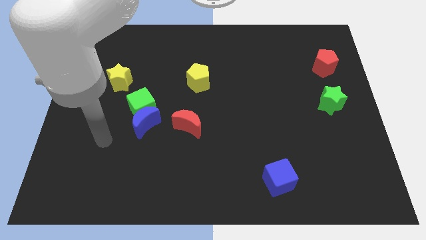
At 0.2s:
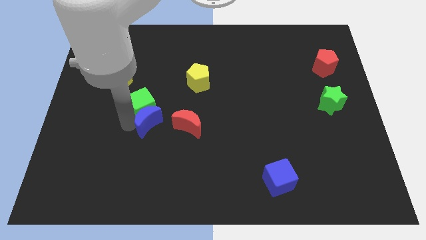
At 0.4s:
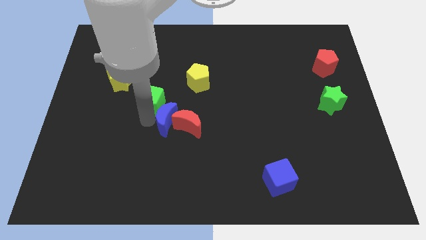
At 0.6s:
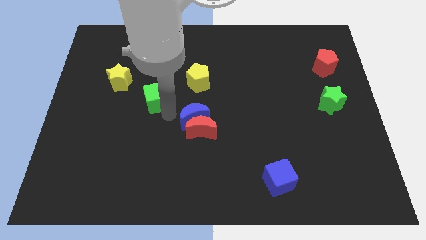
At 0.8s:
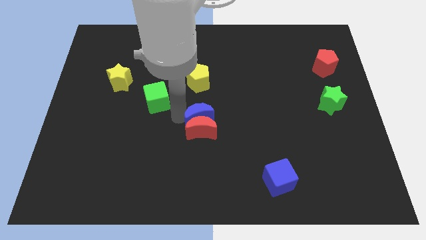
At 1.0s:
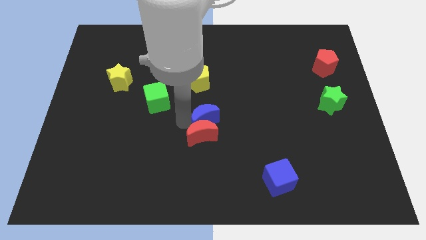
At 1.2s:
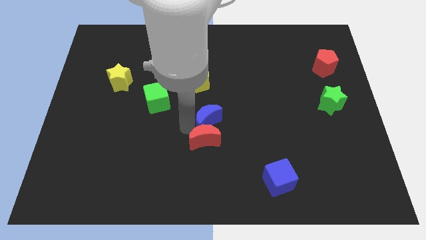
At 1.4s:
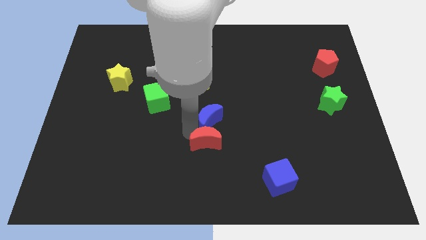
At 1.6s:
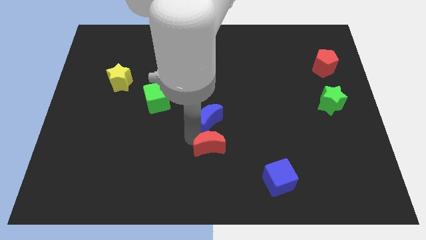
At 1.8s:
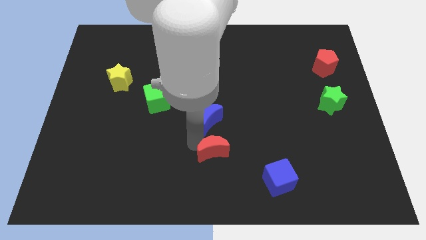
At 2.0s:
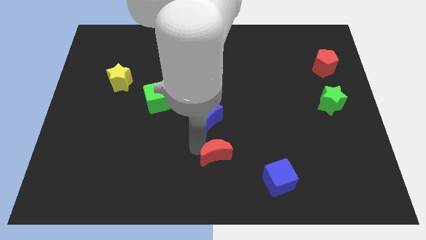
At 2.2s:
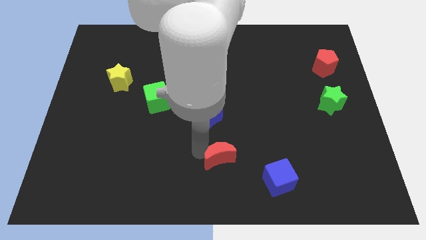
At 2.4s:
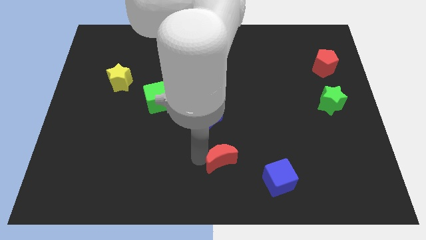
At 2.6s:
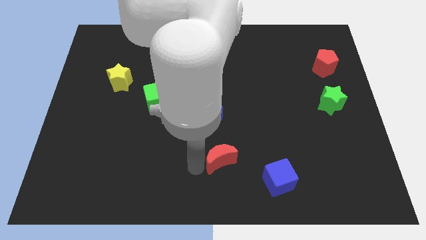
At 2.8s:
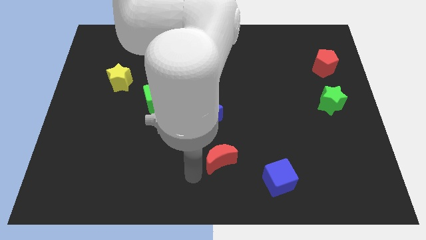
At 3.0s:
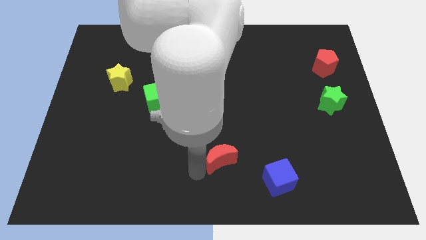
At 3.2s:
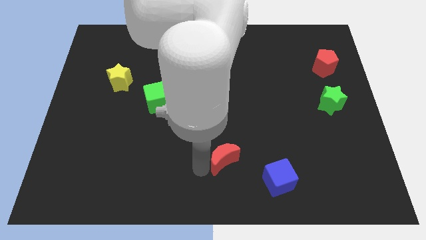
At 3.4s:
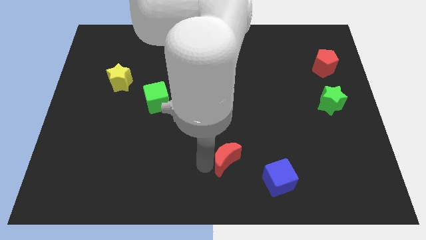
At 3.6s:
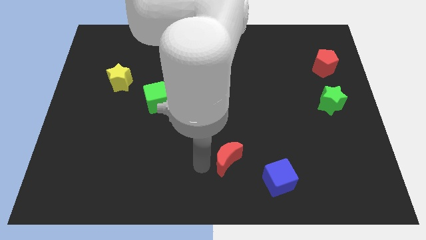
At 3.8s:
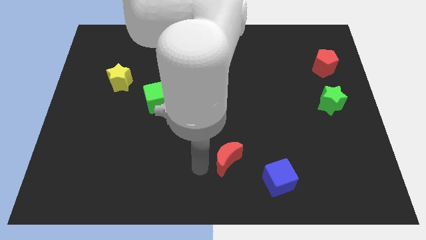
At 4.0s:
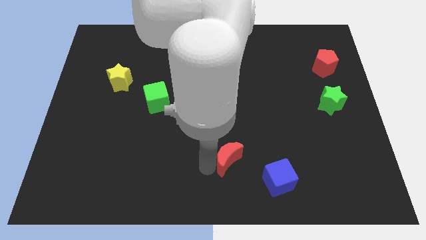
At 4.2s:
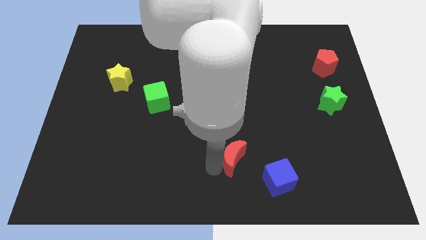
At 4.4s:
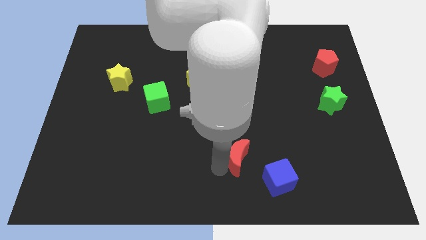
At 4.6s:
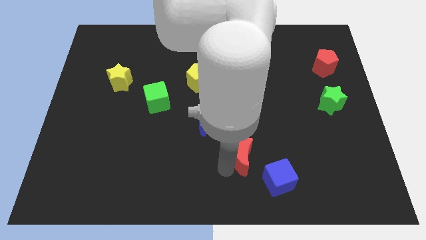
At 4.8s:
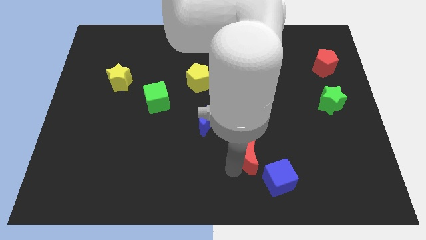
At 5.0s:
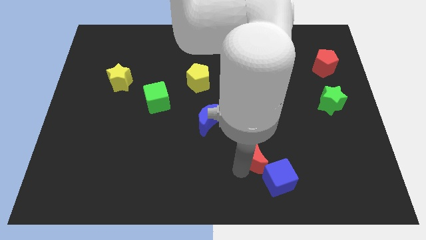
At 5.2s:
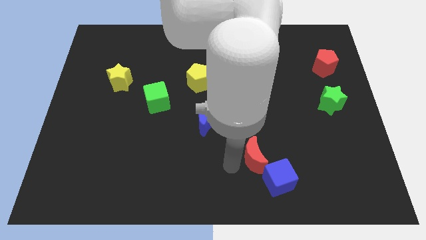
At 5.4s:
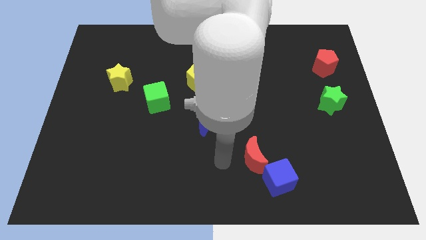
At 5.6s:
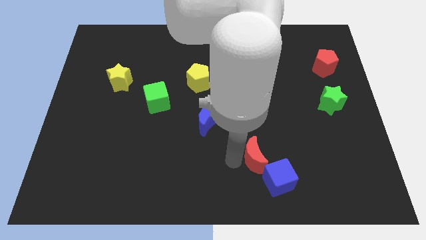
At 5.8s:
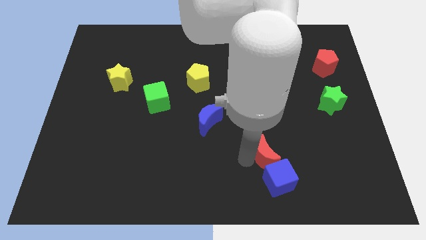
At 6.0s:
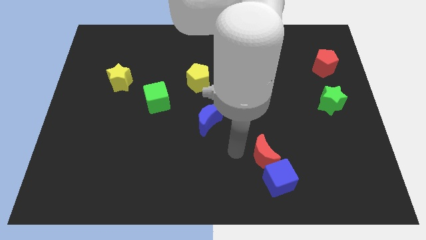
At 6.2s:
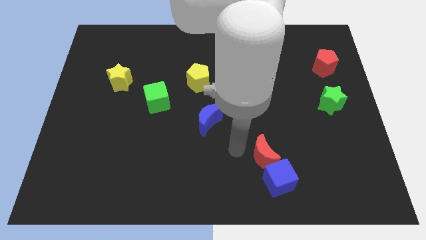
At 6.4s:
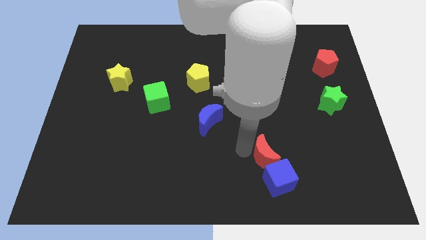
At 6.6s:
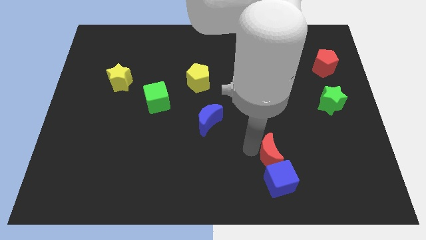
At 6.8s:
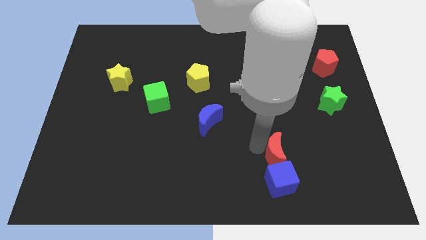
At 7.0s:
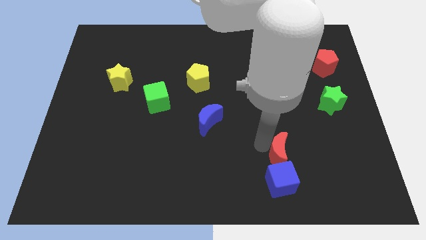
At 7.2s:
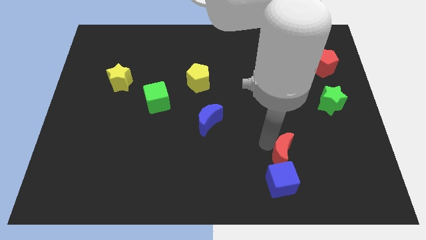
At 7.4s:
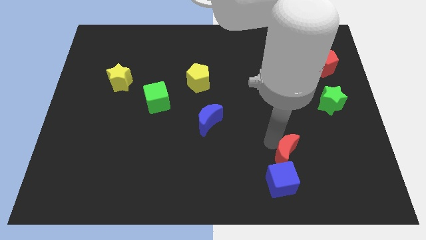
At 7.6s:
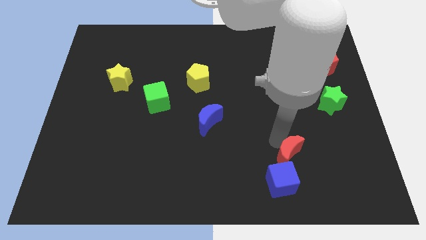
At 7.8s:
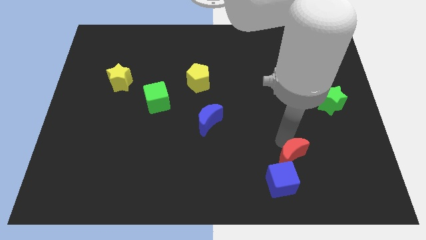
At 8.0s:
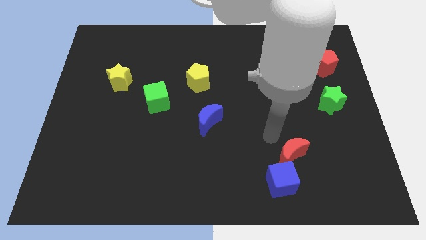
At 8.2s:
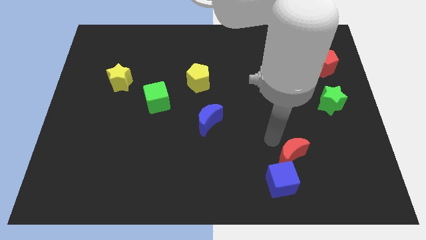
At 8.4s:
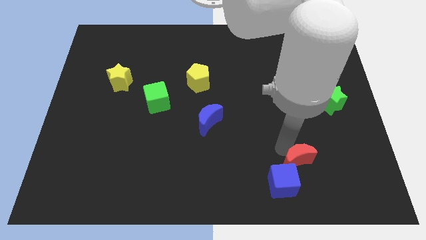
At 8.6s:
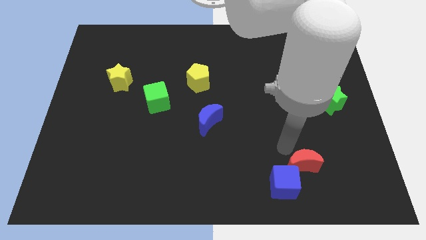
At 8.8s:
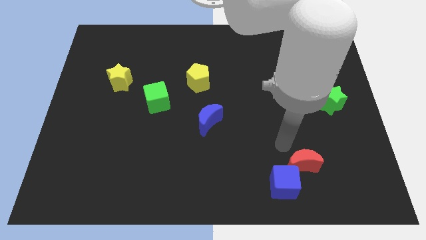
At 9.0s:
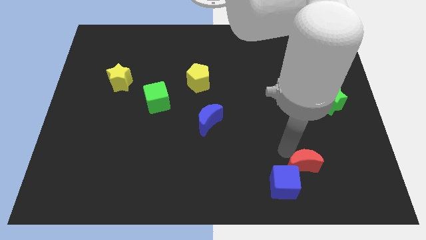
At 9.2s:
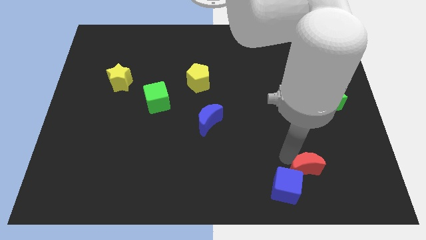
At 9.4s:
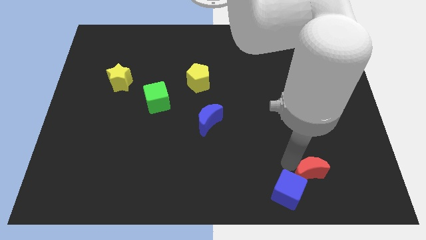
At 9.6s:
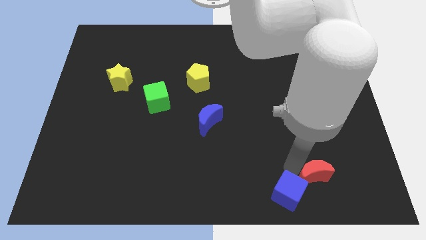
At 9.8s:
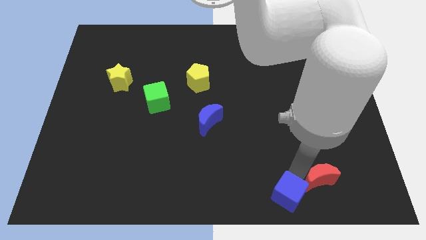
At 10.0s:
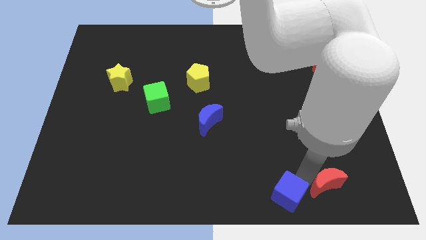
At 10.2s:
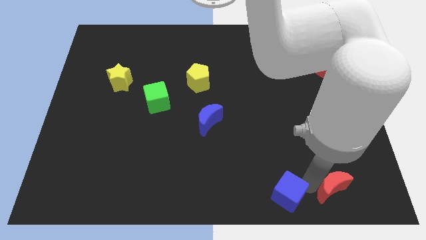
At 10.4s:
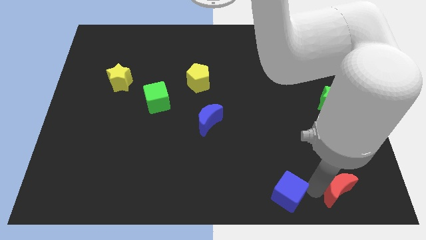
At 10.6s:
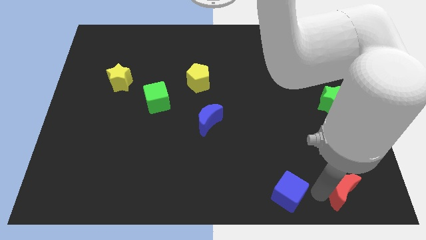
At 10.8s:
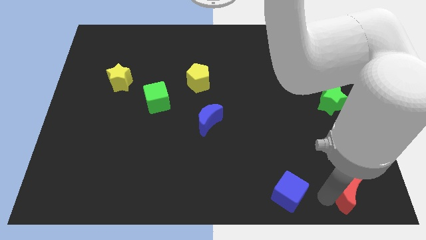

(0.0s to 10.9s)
slide the red moon to the bottom right corner

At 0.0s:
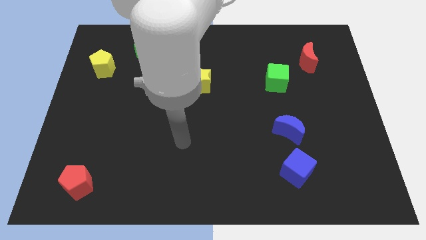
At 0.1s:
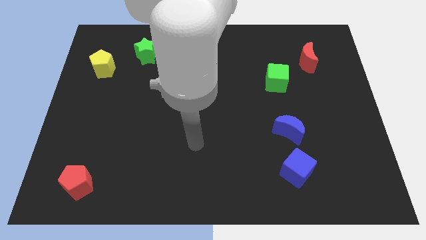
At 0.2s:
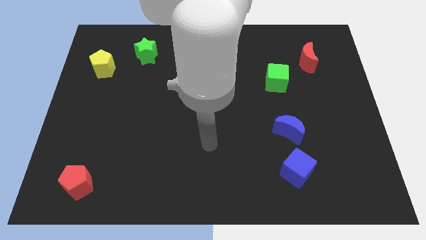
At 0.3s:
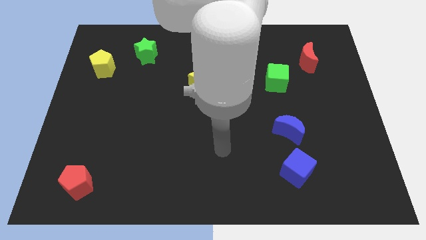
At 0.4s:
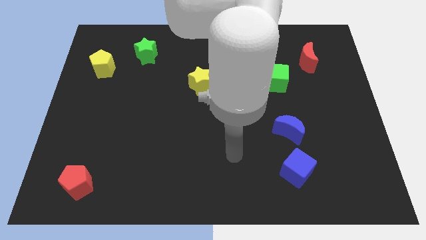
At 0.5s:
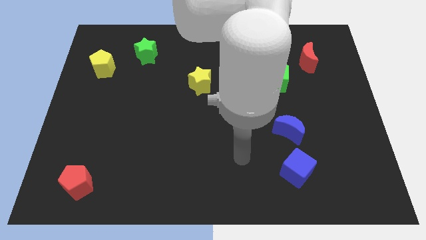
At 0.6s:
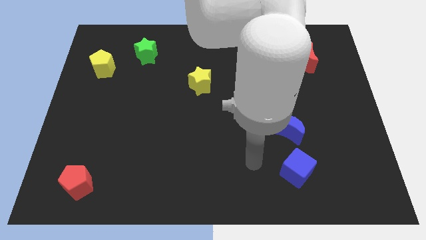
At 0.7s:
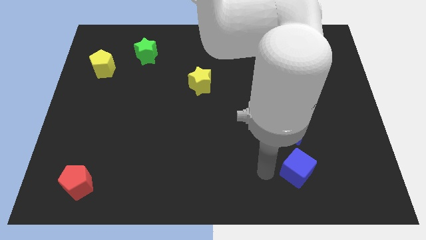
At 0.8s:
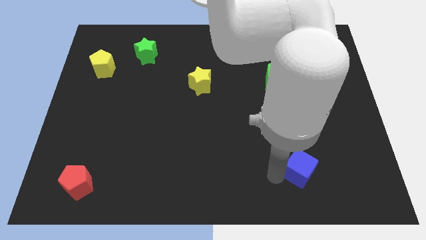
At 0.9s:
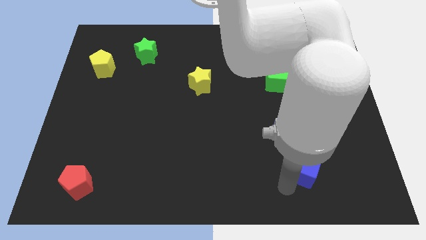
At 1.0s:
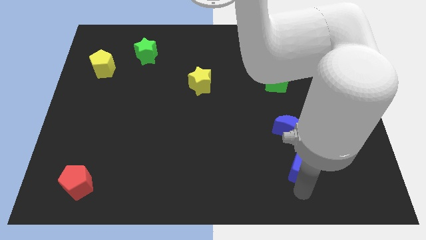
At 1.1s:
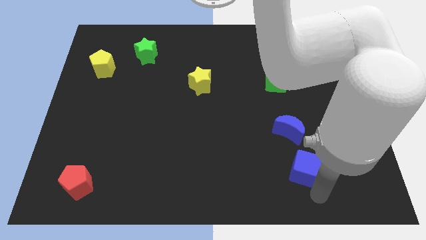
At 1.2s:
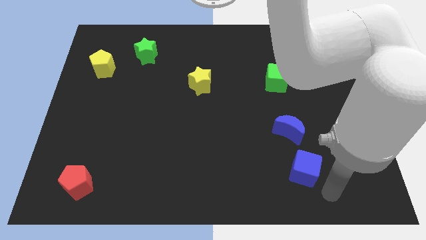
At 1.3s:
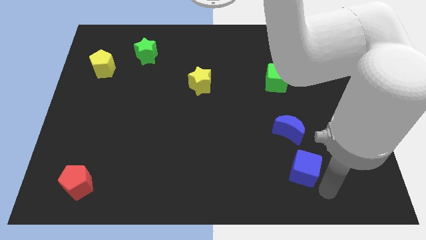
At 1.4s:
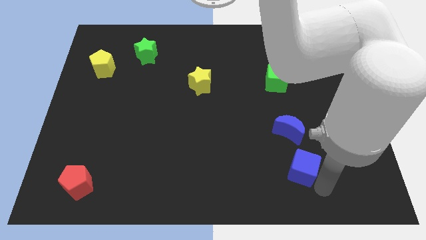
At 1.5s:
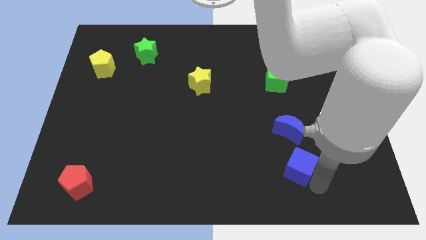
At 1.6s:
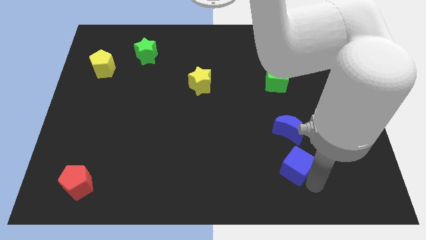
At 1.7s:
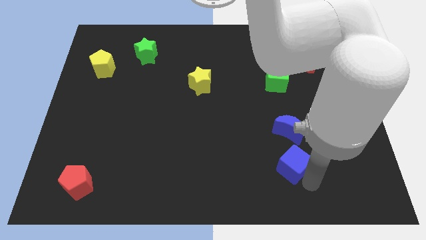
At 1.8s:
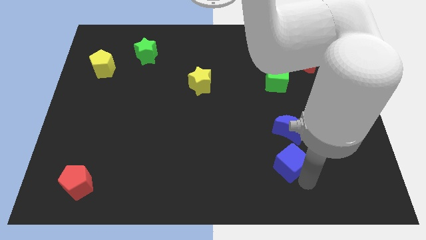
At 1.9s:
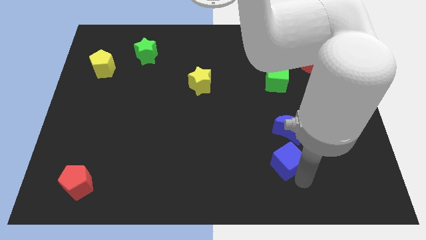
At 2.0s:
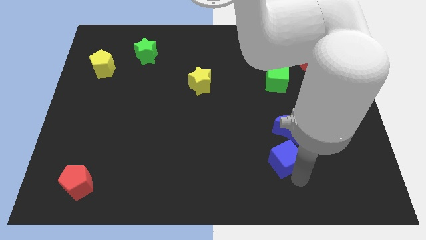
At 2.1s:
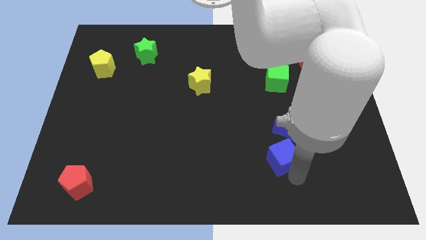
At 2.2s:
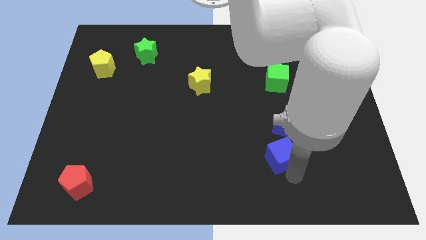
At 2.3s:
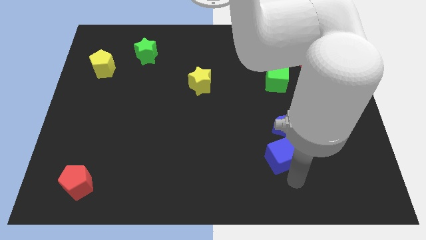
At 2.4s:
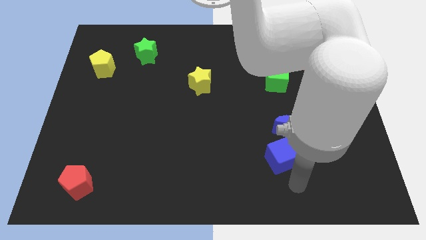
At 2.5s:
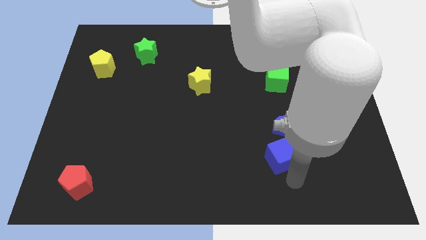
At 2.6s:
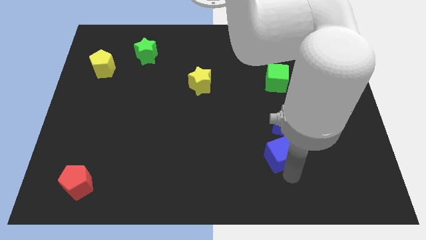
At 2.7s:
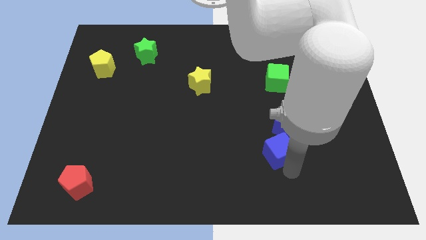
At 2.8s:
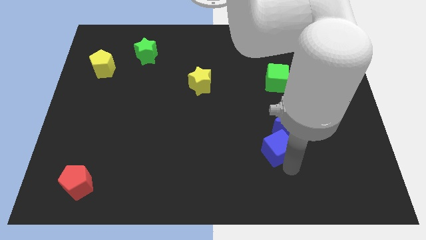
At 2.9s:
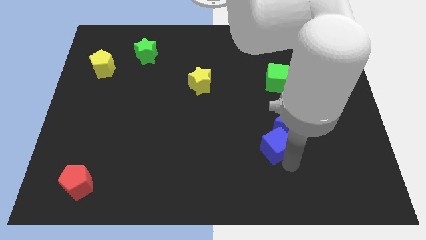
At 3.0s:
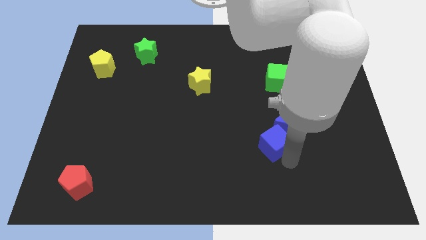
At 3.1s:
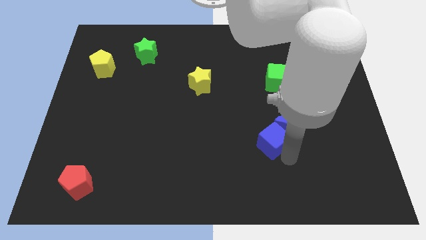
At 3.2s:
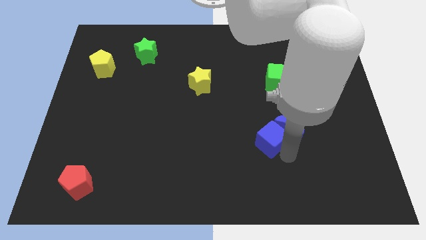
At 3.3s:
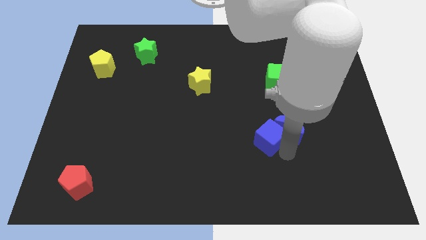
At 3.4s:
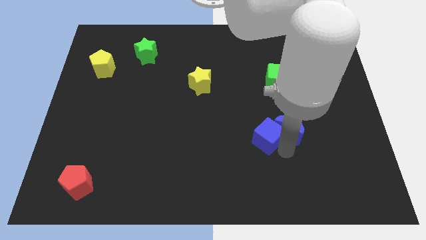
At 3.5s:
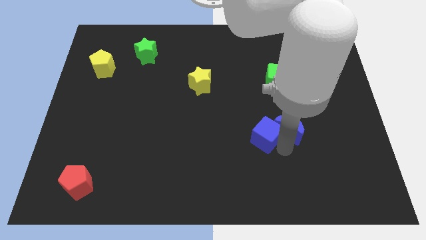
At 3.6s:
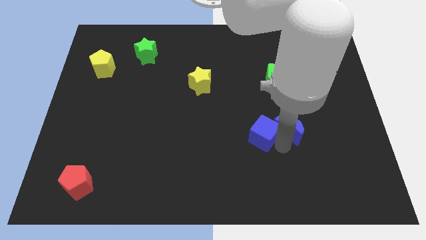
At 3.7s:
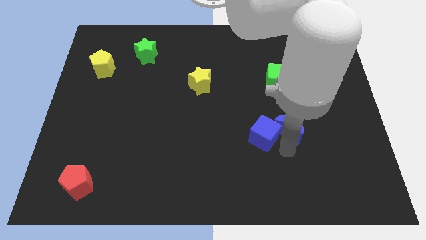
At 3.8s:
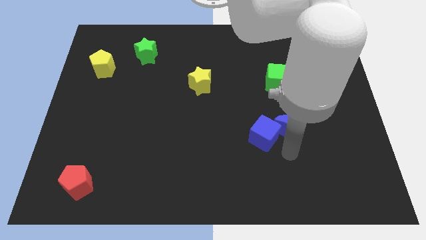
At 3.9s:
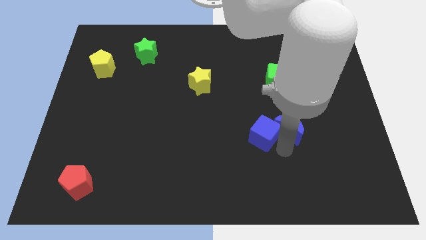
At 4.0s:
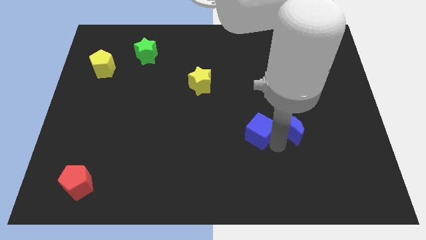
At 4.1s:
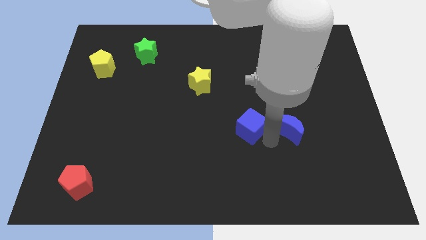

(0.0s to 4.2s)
put the blue cube to the center of the board
